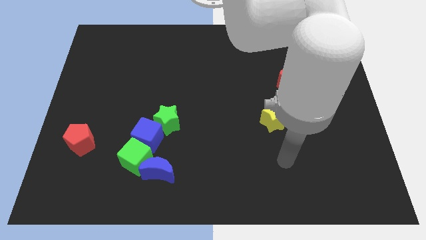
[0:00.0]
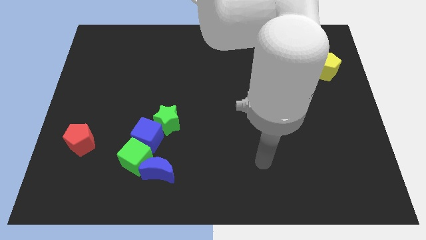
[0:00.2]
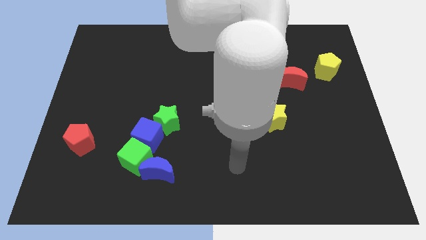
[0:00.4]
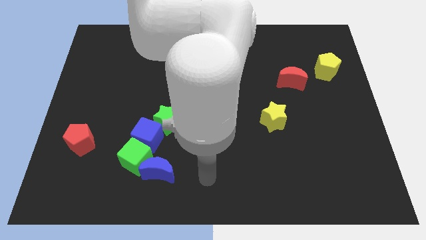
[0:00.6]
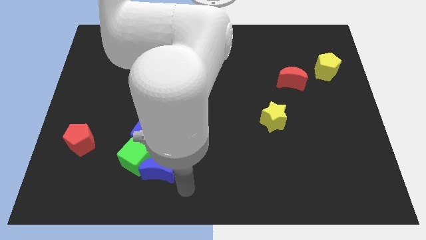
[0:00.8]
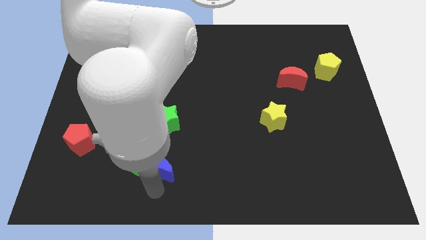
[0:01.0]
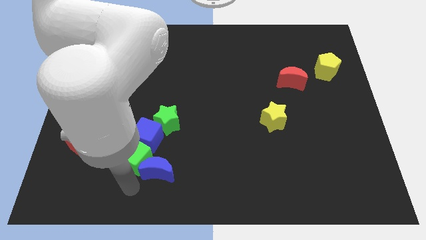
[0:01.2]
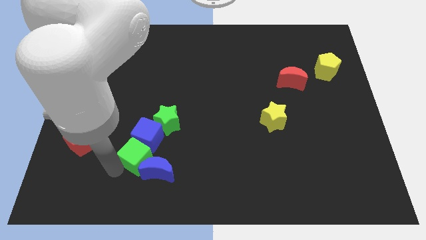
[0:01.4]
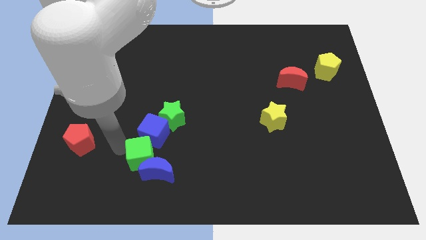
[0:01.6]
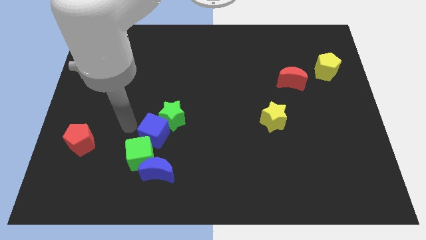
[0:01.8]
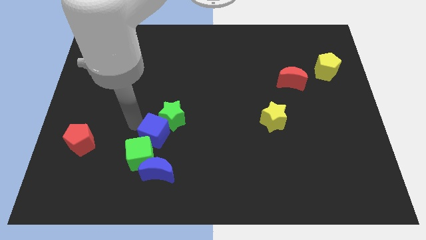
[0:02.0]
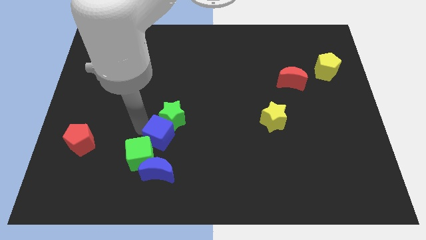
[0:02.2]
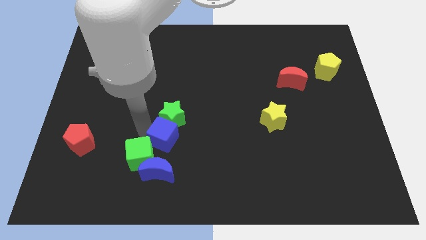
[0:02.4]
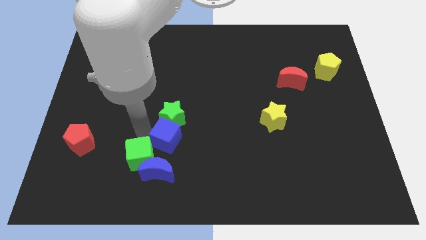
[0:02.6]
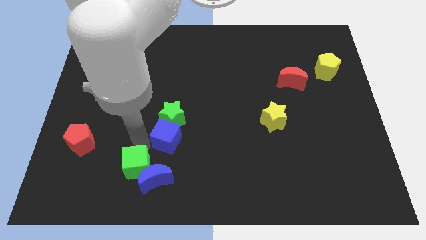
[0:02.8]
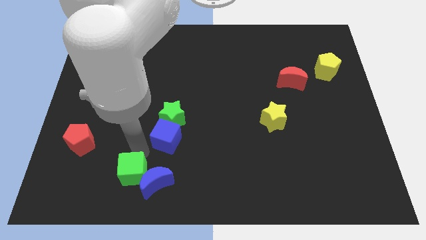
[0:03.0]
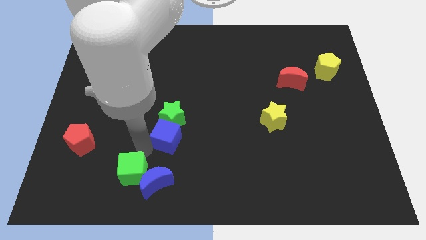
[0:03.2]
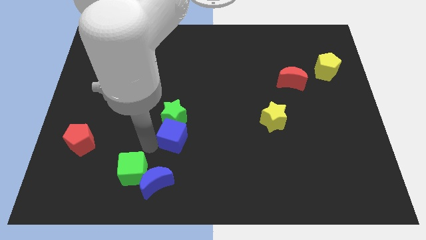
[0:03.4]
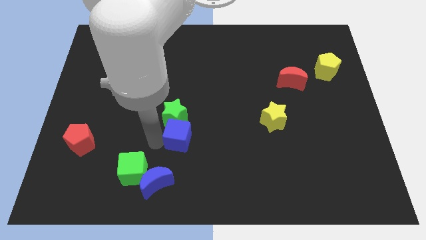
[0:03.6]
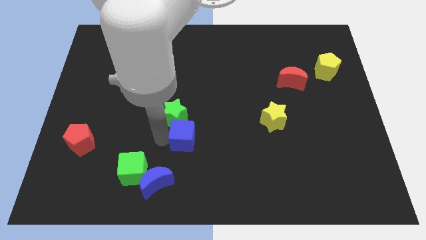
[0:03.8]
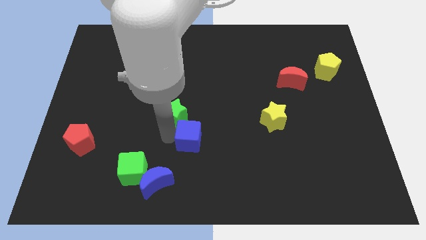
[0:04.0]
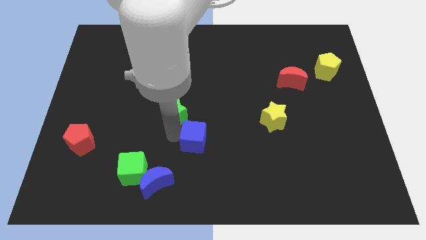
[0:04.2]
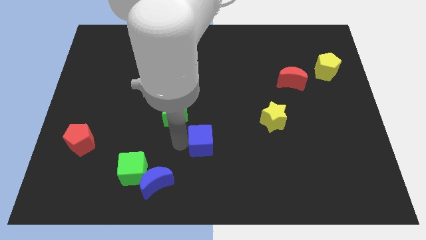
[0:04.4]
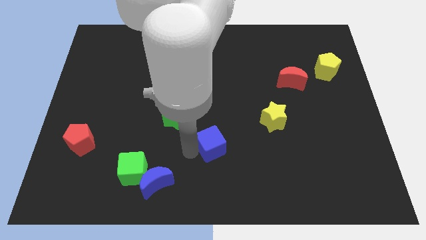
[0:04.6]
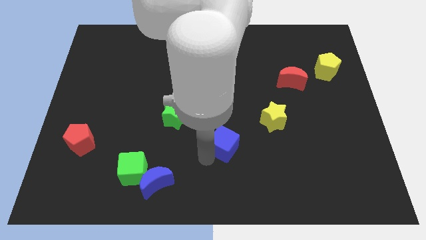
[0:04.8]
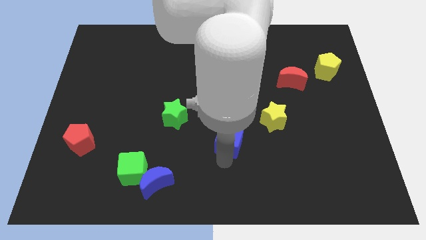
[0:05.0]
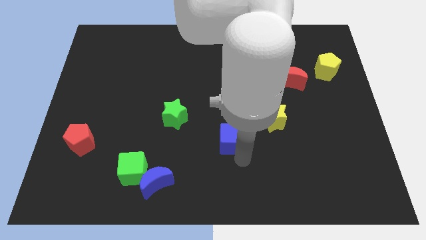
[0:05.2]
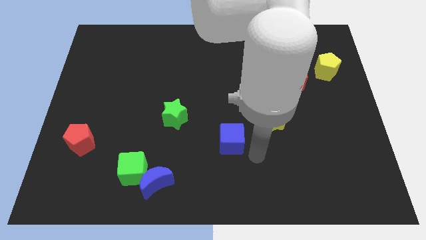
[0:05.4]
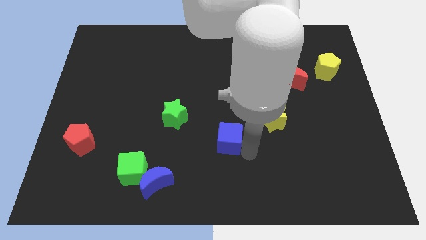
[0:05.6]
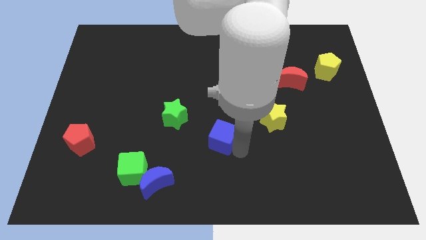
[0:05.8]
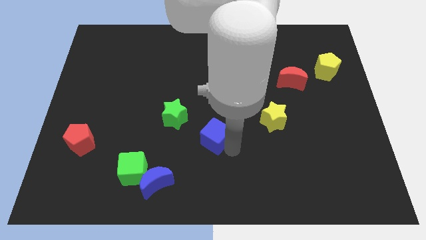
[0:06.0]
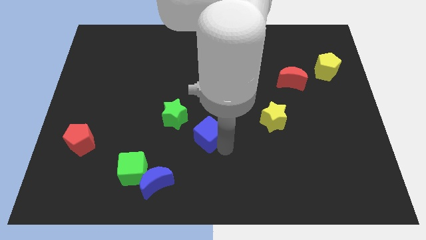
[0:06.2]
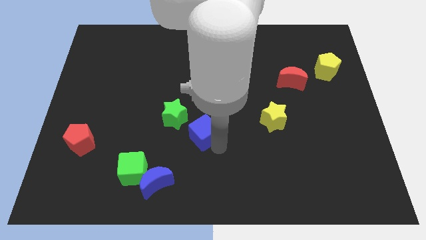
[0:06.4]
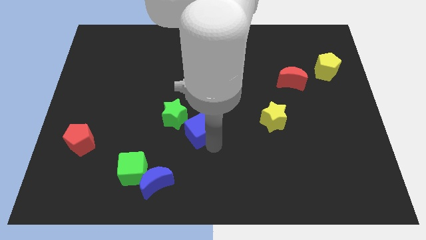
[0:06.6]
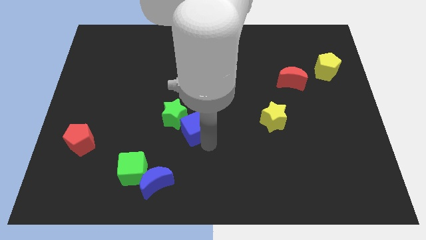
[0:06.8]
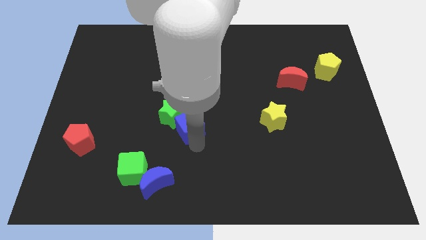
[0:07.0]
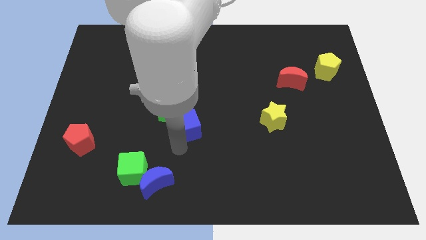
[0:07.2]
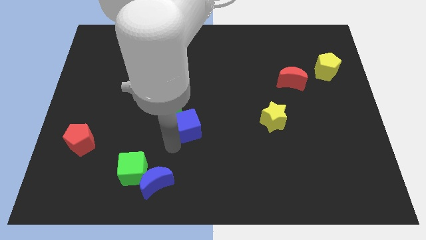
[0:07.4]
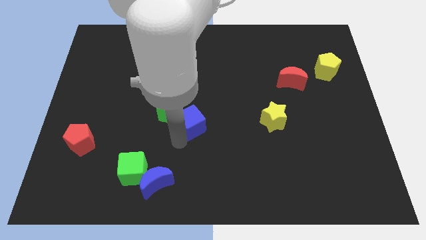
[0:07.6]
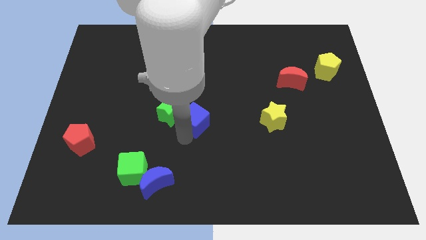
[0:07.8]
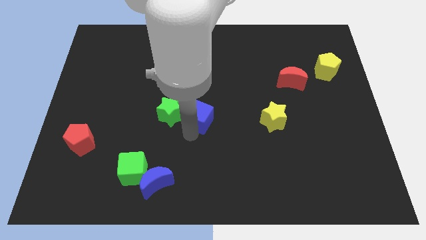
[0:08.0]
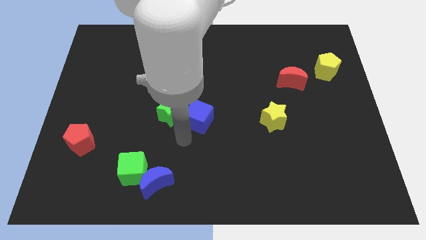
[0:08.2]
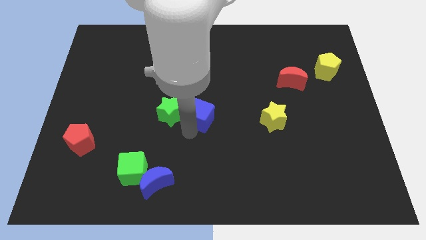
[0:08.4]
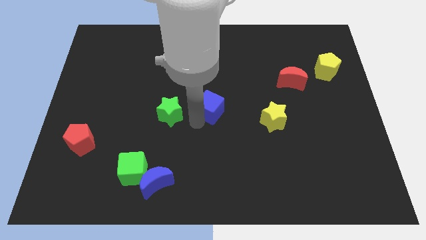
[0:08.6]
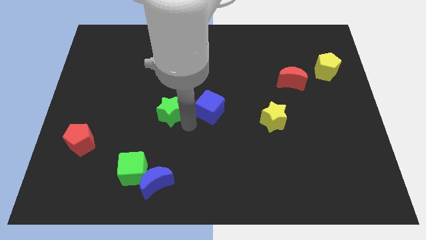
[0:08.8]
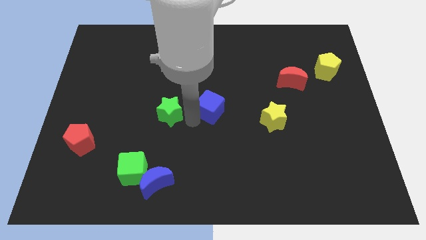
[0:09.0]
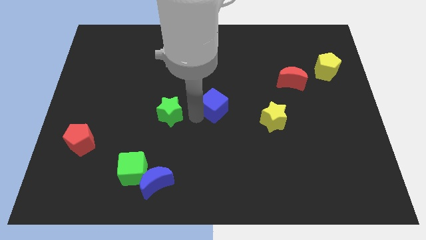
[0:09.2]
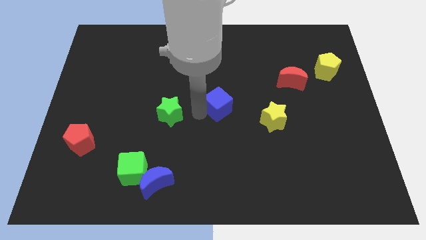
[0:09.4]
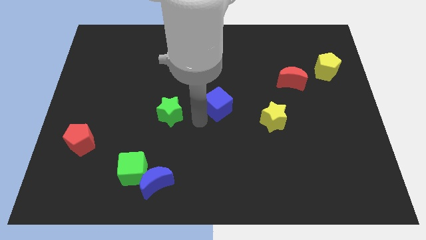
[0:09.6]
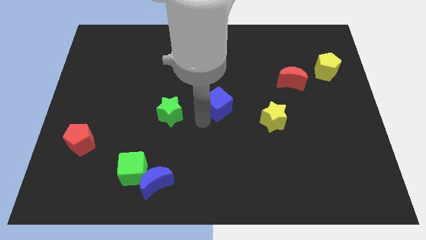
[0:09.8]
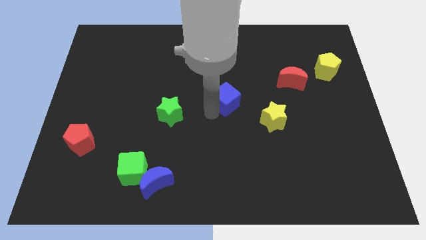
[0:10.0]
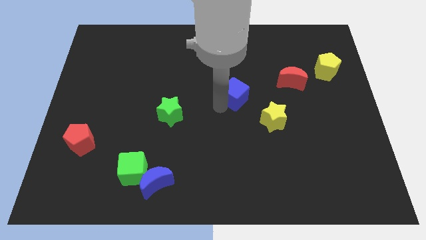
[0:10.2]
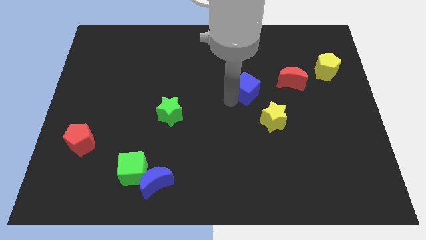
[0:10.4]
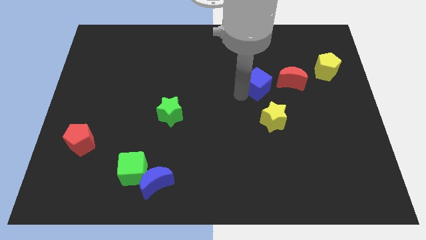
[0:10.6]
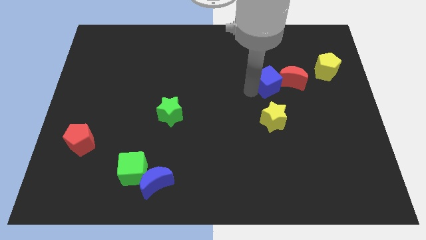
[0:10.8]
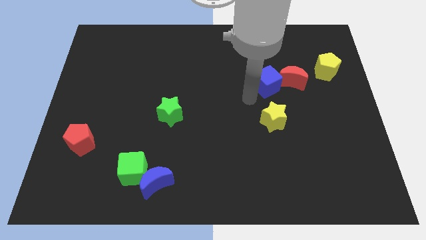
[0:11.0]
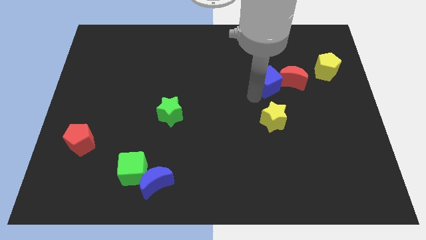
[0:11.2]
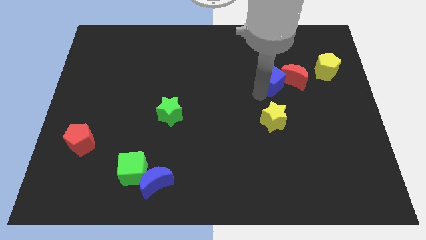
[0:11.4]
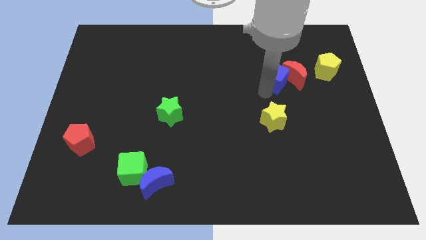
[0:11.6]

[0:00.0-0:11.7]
move the blue cube just left of the yellow pentagon
